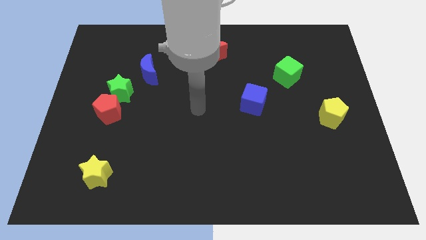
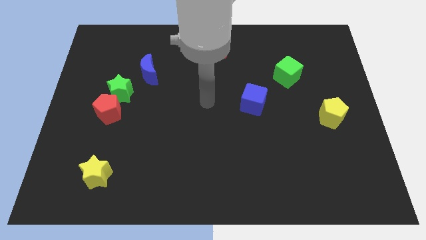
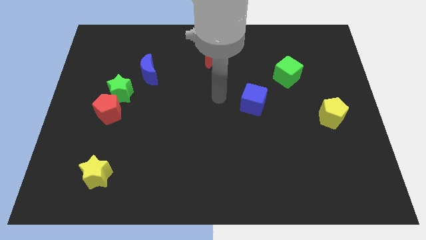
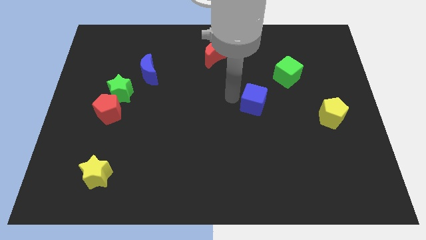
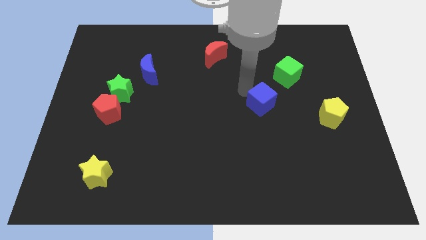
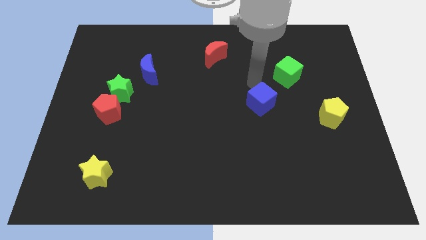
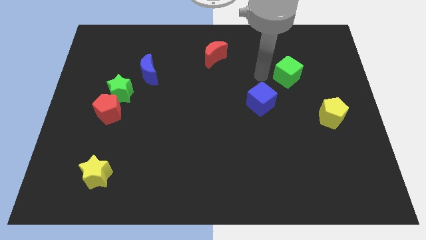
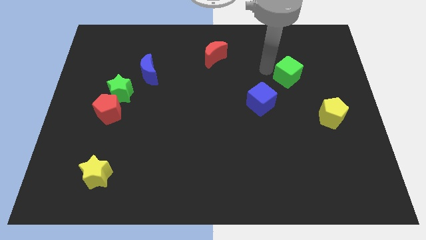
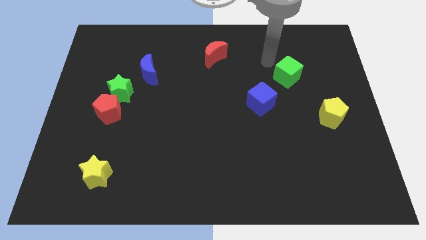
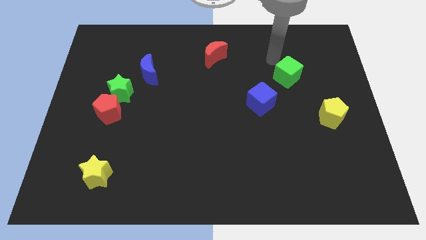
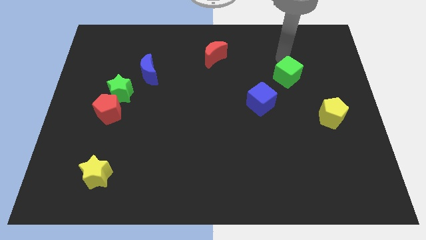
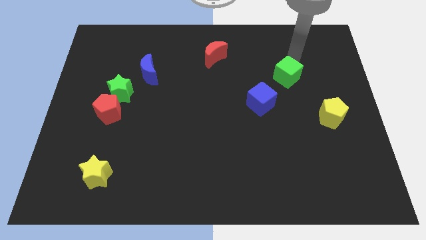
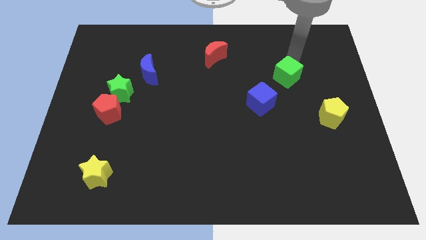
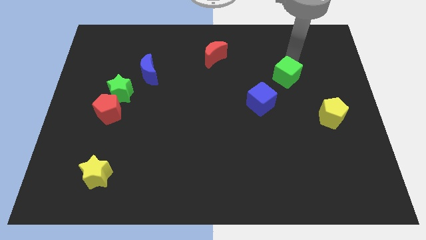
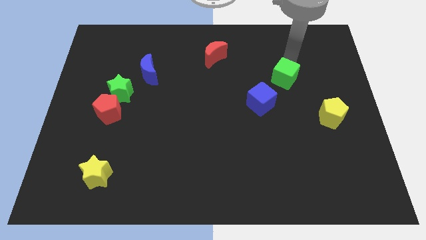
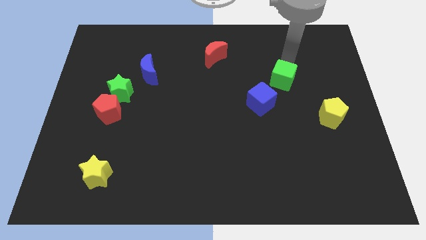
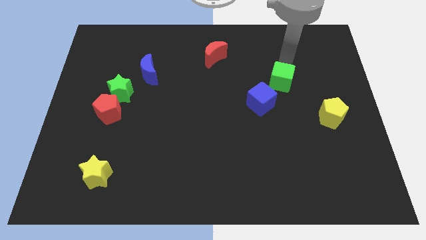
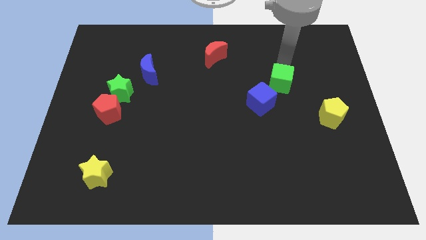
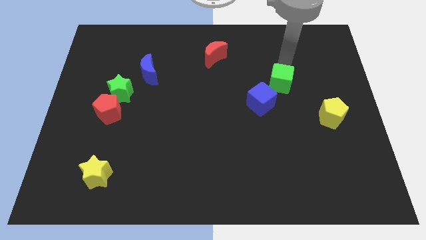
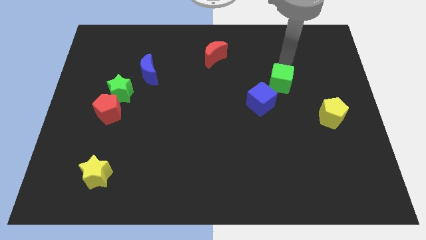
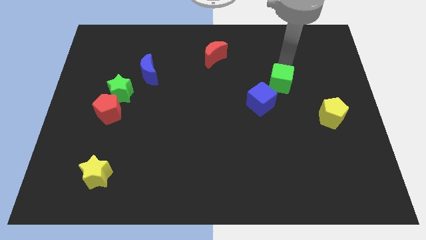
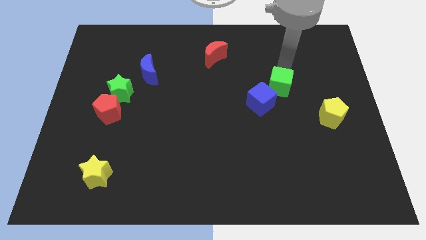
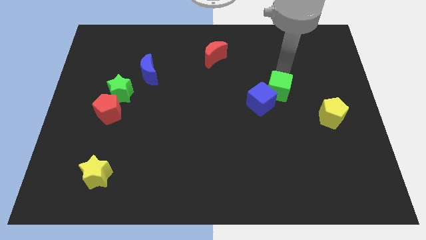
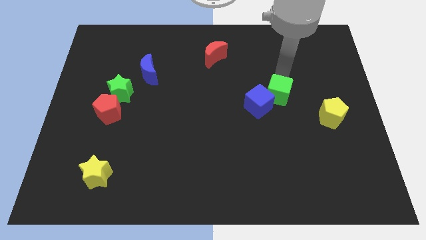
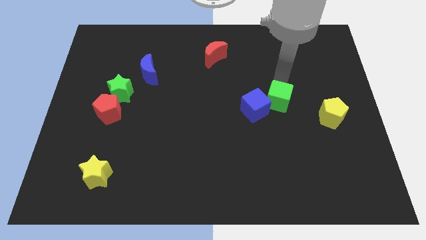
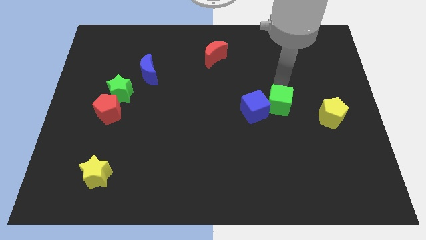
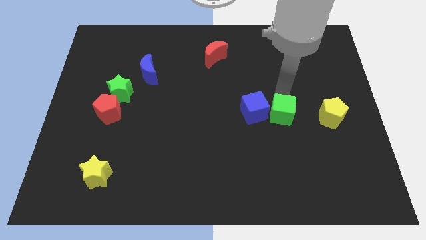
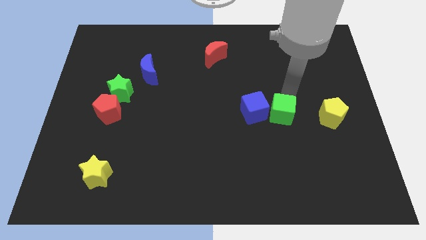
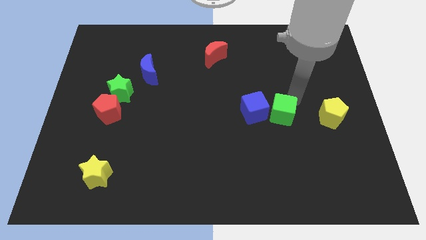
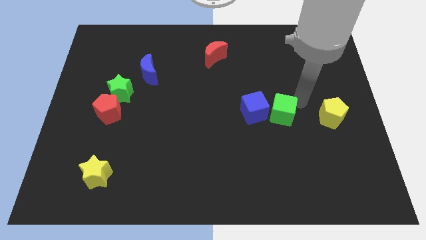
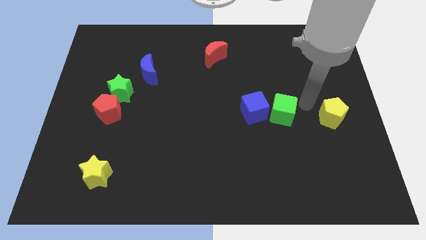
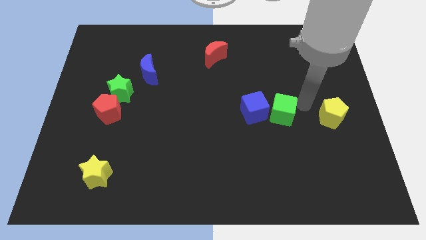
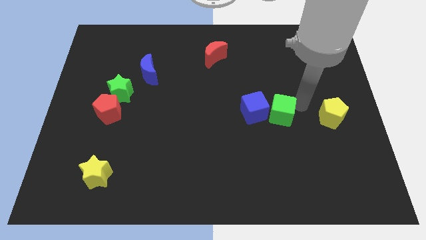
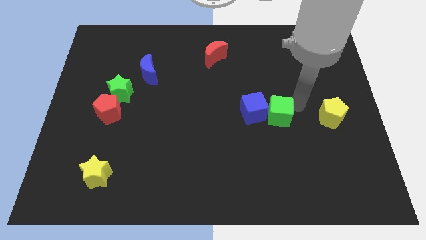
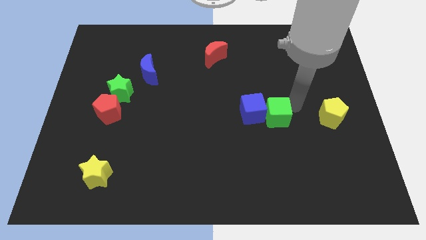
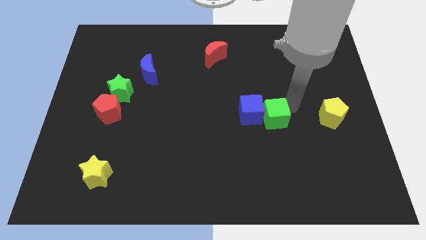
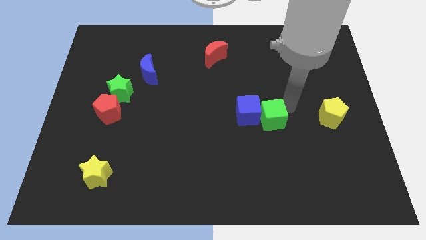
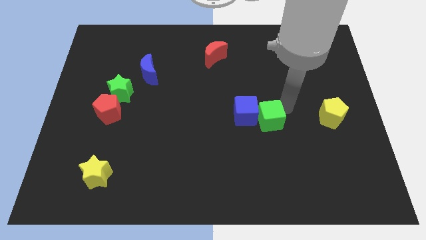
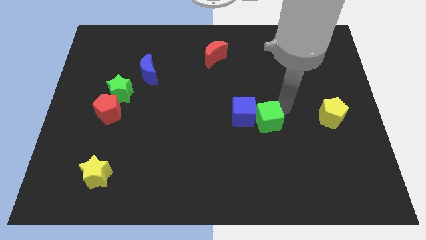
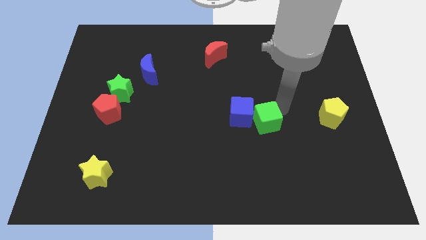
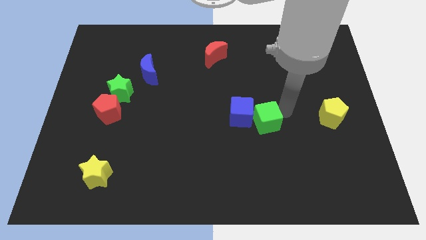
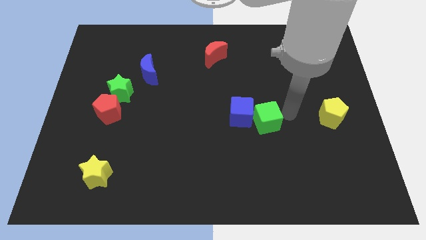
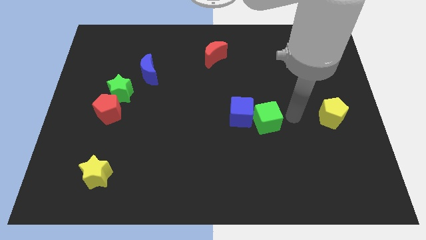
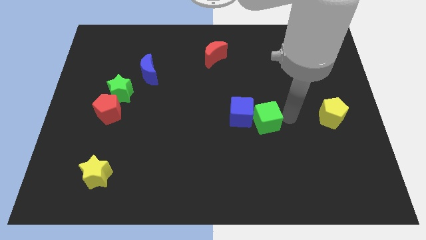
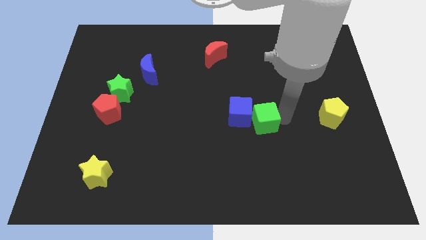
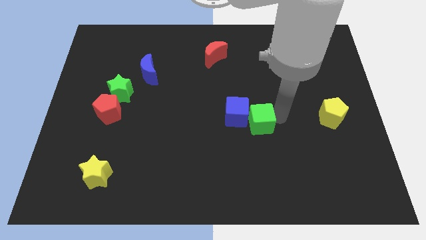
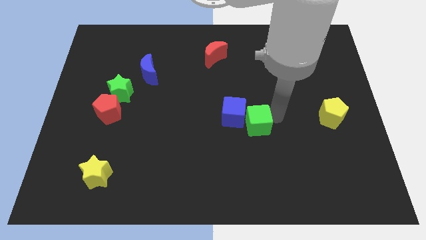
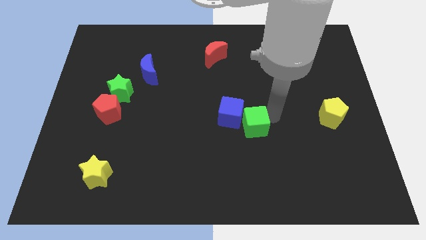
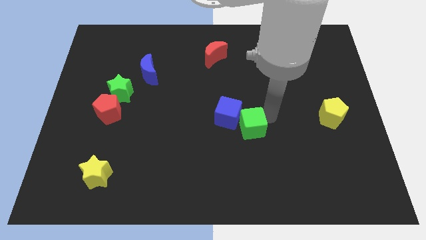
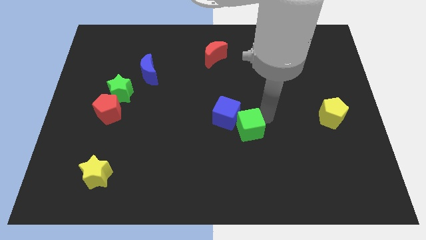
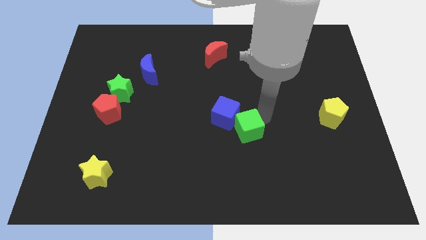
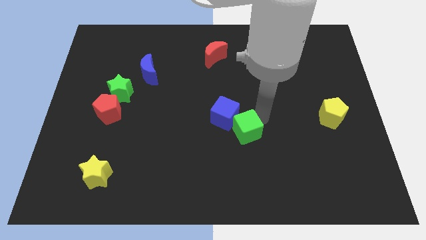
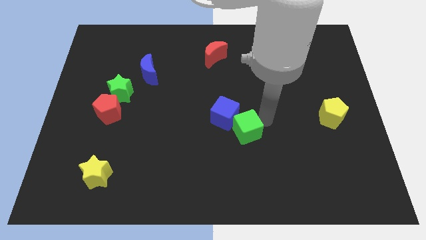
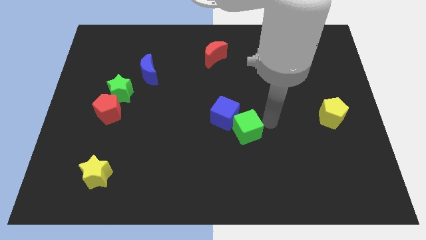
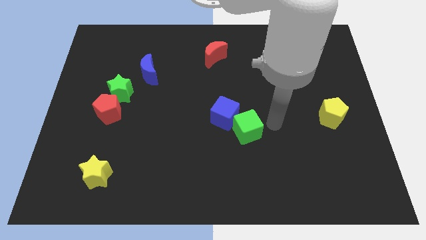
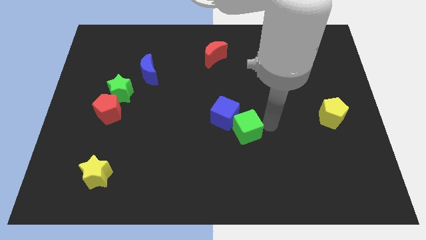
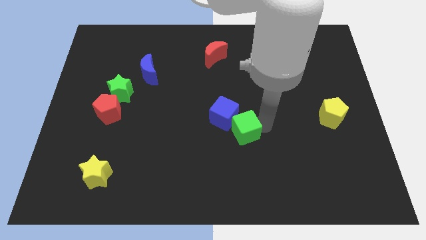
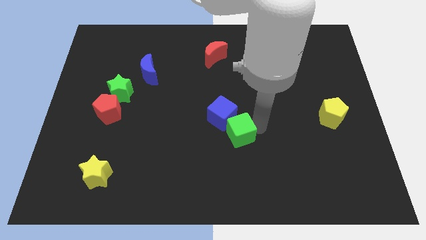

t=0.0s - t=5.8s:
move the green cube down and then left

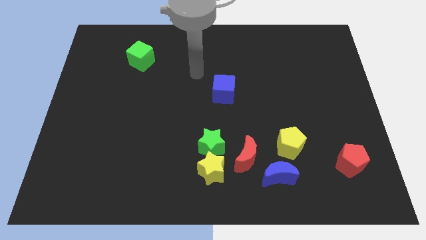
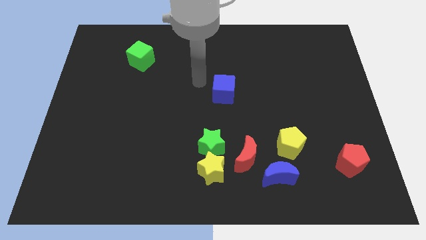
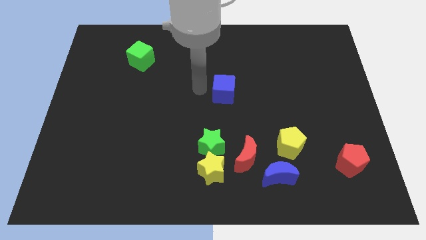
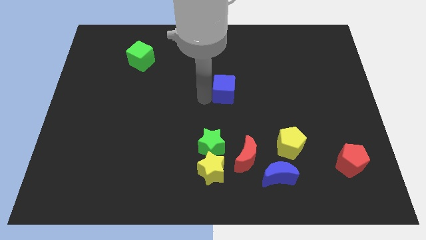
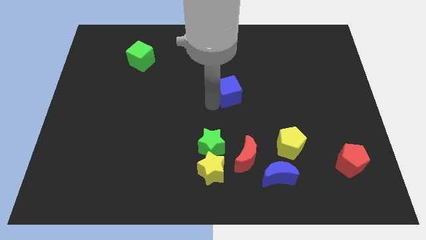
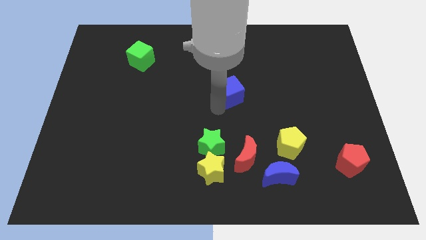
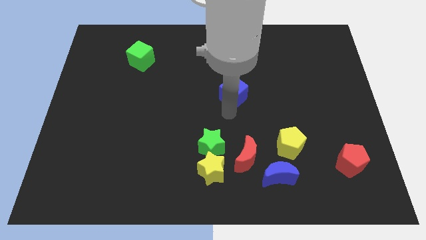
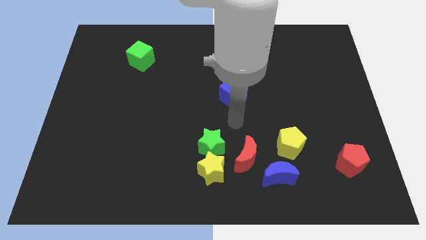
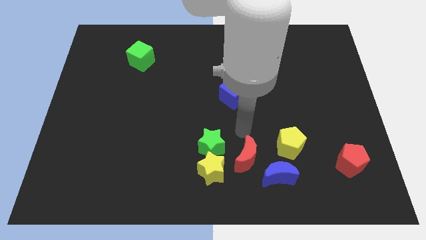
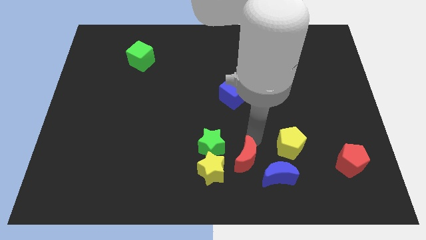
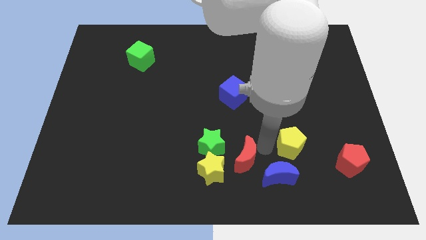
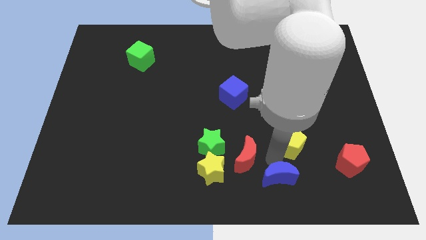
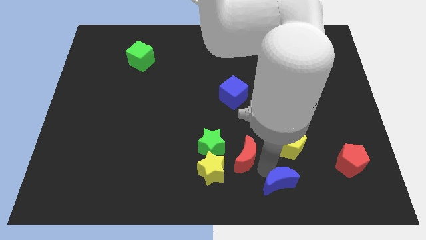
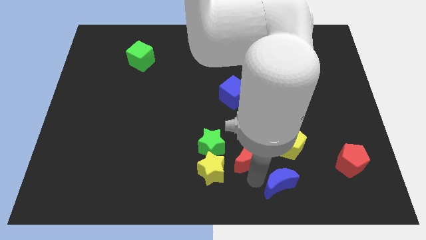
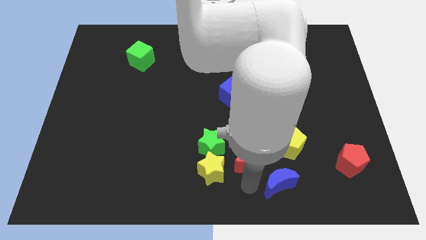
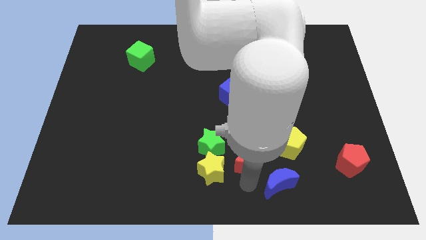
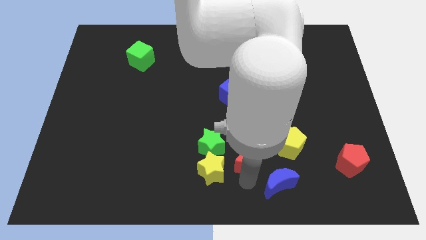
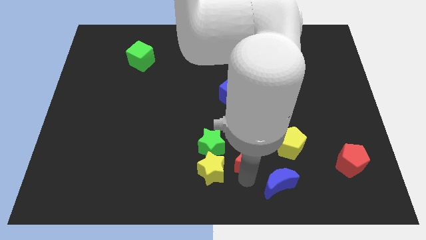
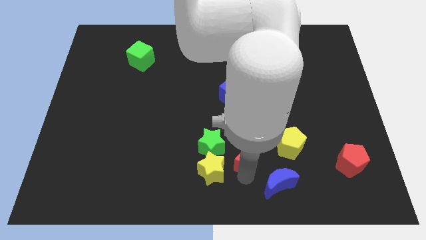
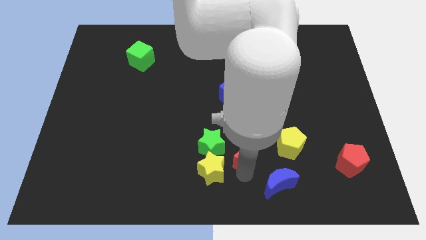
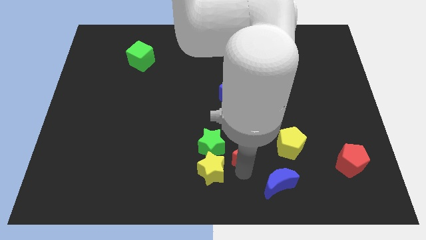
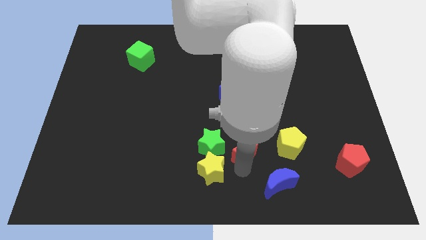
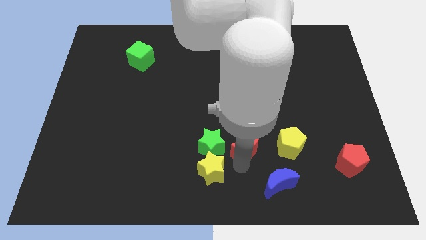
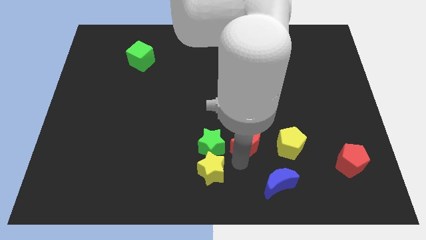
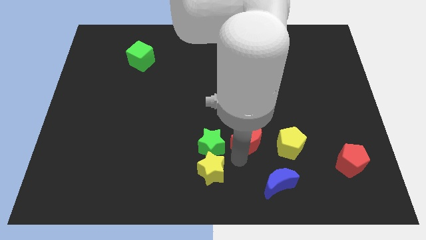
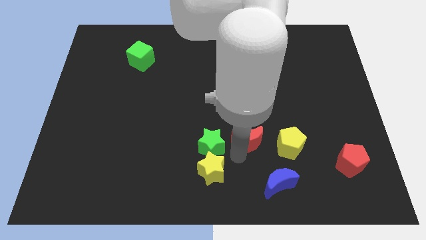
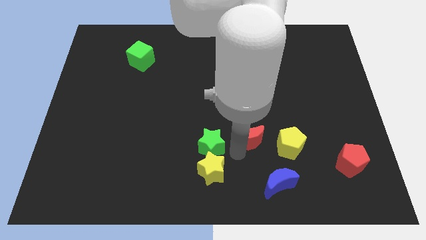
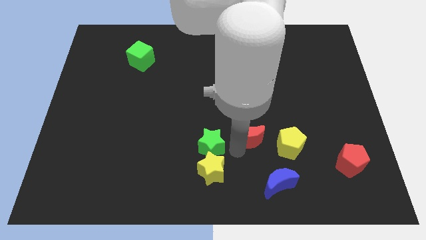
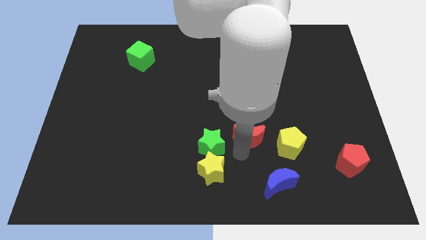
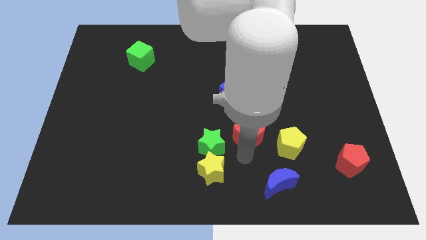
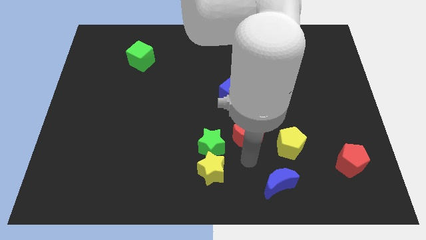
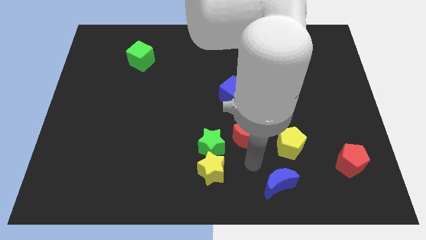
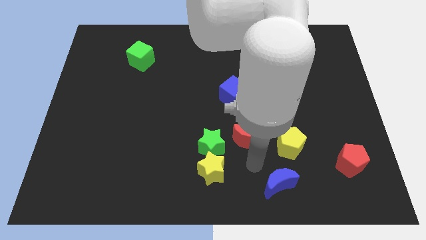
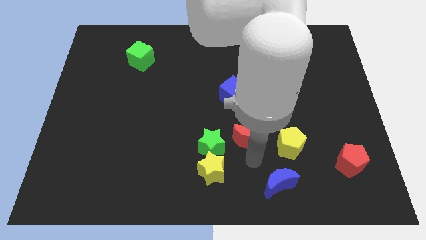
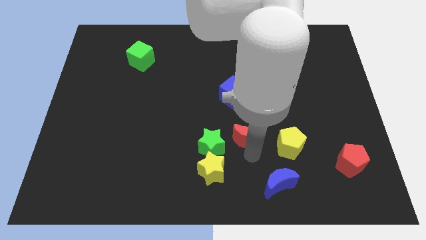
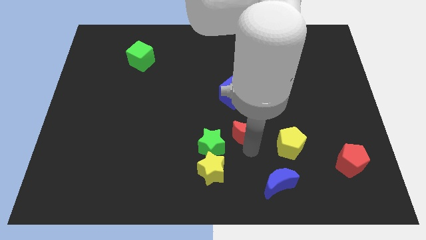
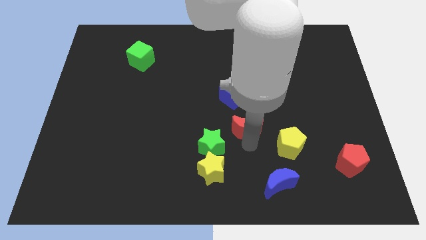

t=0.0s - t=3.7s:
push the red moon a little upwards
